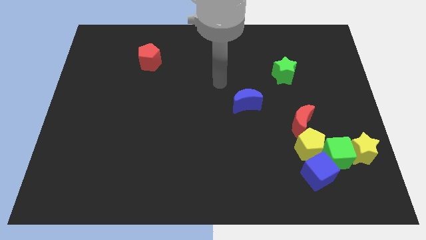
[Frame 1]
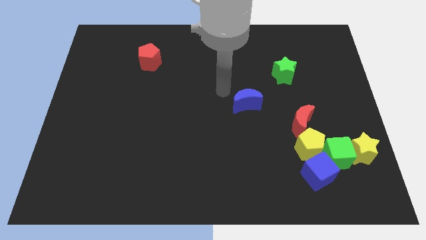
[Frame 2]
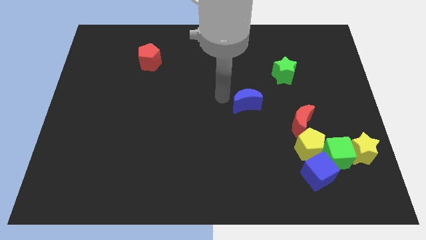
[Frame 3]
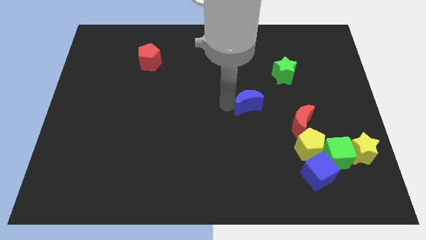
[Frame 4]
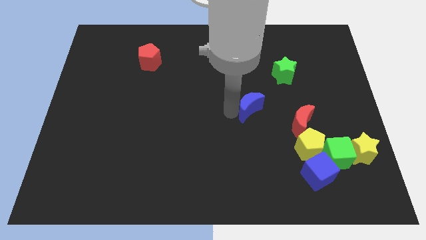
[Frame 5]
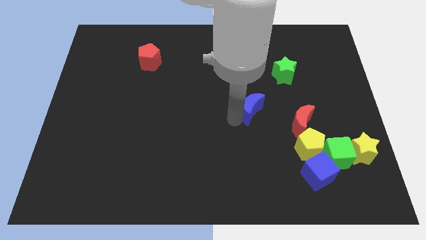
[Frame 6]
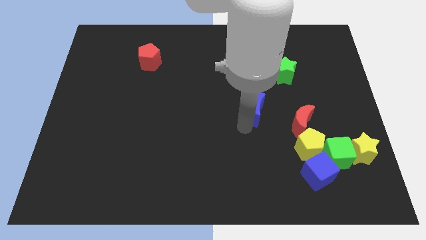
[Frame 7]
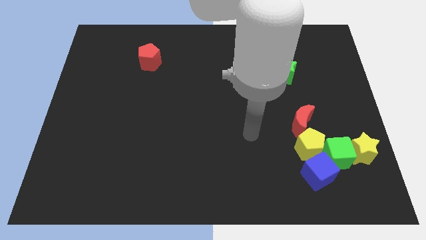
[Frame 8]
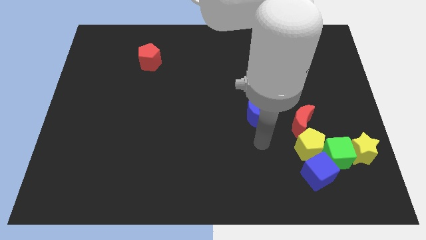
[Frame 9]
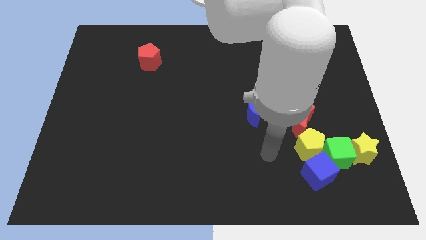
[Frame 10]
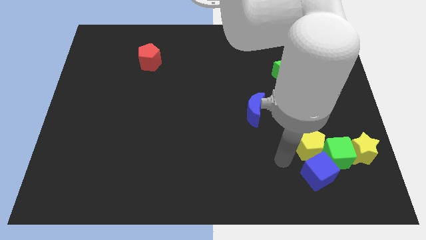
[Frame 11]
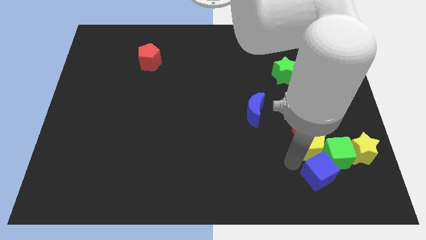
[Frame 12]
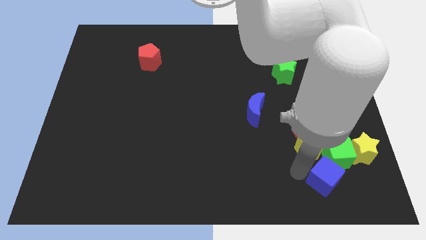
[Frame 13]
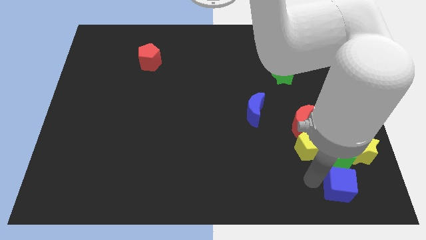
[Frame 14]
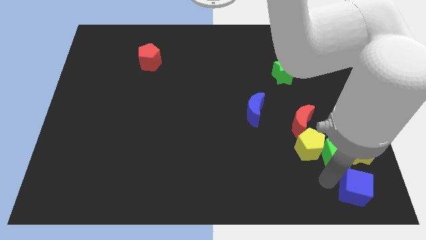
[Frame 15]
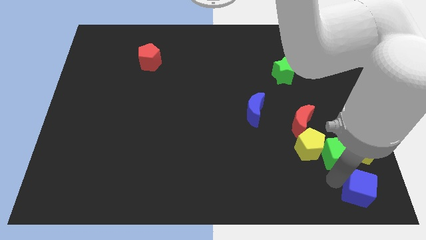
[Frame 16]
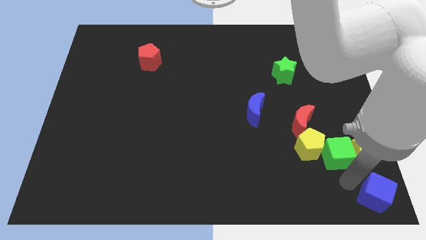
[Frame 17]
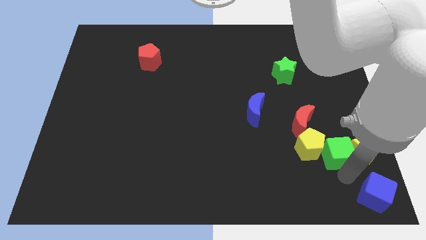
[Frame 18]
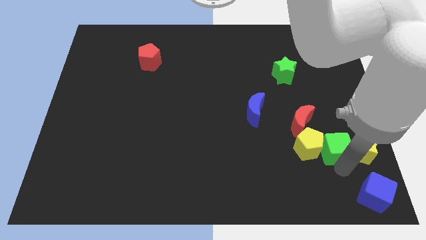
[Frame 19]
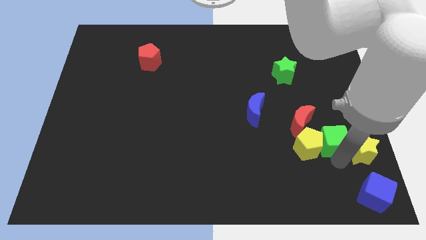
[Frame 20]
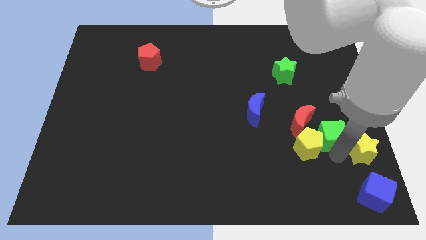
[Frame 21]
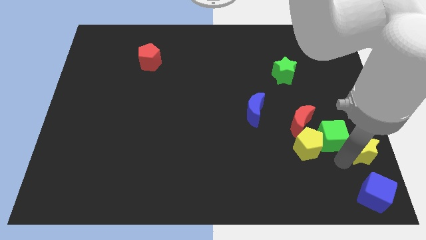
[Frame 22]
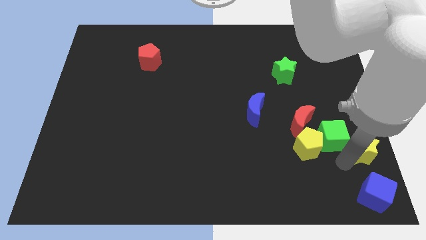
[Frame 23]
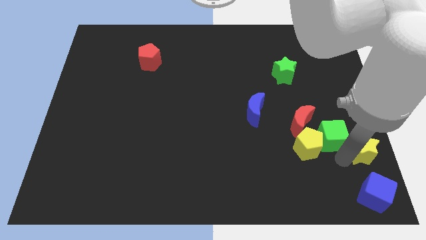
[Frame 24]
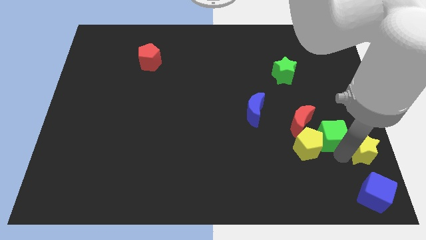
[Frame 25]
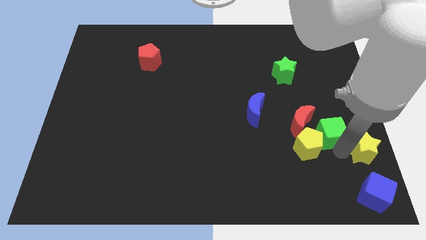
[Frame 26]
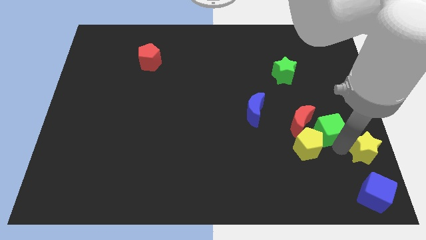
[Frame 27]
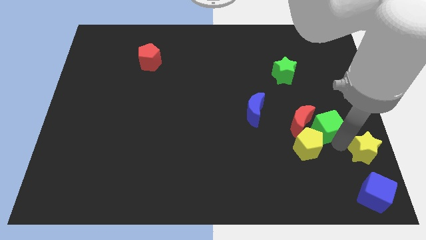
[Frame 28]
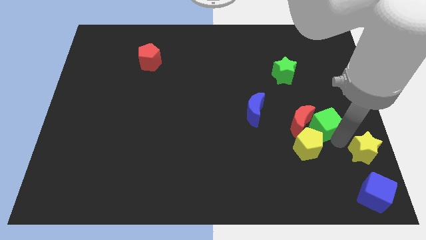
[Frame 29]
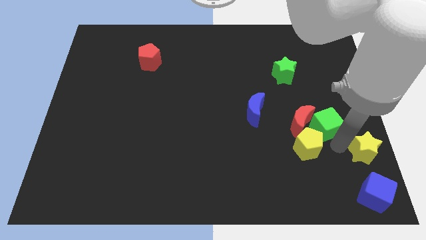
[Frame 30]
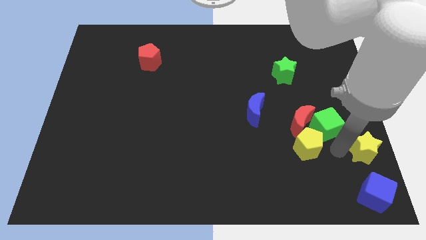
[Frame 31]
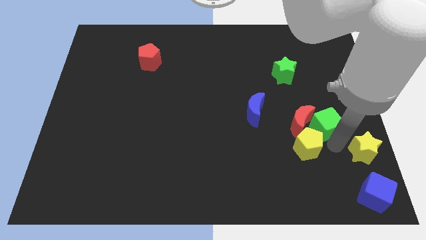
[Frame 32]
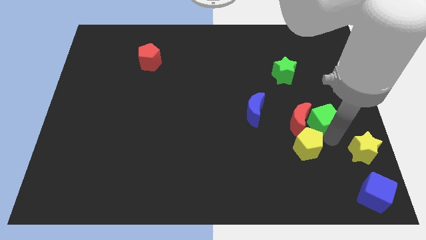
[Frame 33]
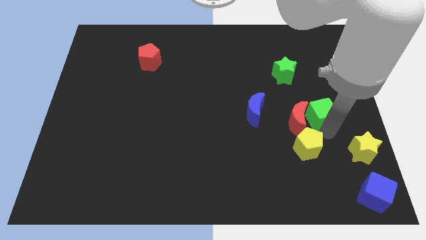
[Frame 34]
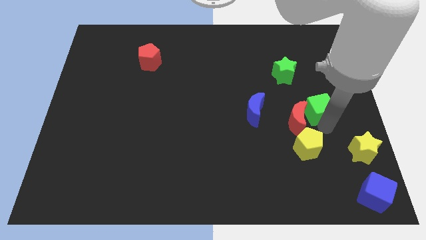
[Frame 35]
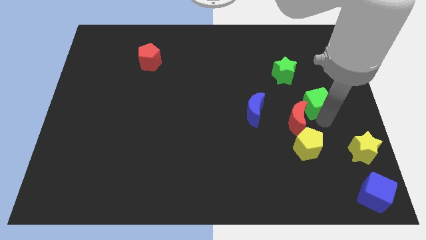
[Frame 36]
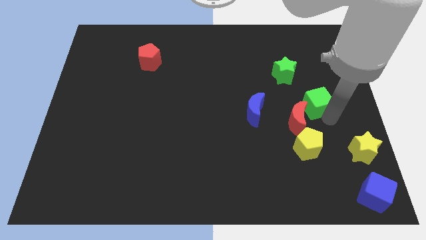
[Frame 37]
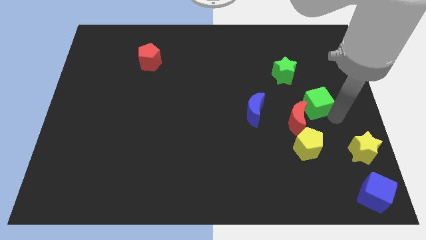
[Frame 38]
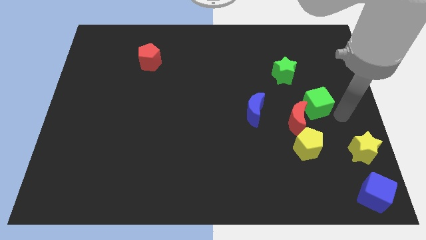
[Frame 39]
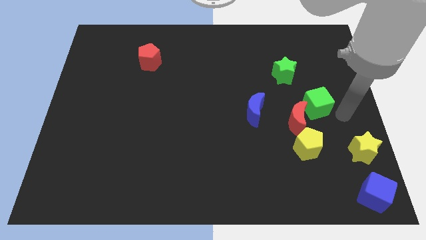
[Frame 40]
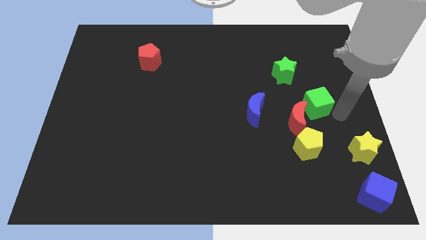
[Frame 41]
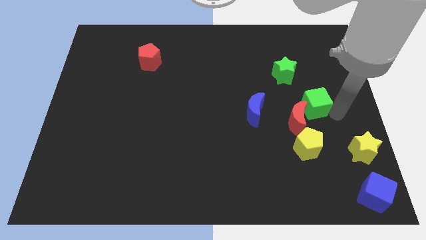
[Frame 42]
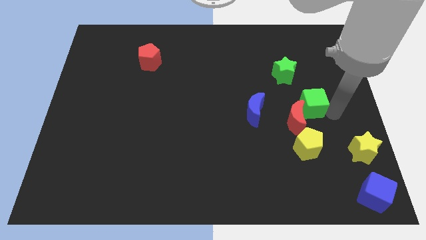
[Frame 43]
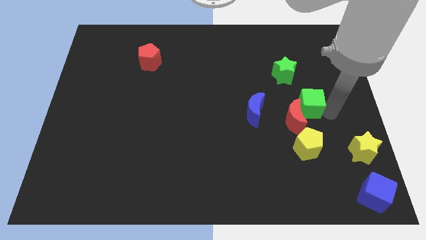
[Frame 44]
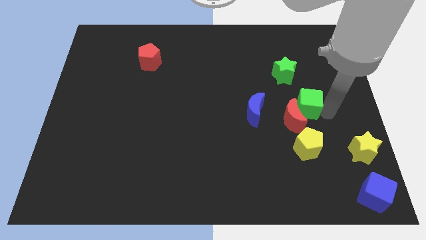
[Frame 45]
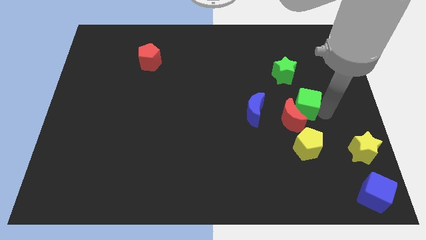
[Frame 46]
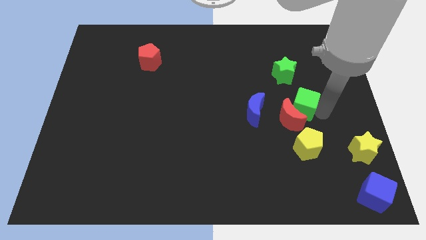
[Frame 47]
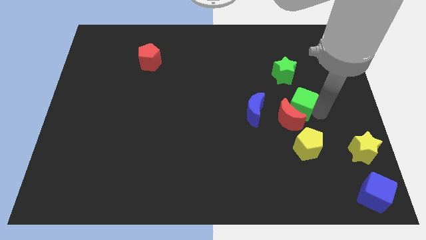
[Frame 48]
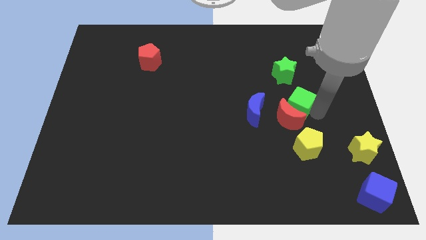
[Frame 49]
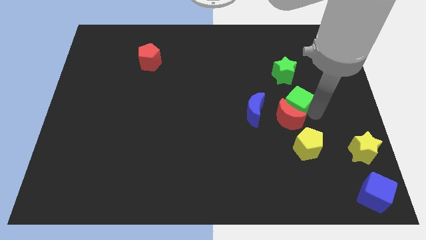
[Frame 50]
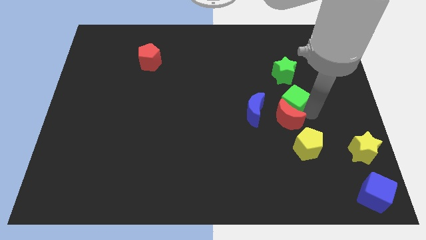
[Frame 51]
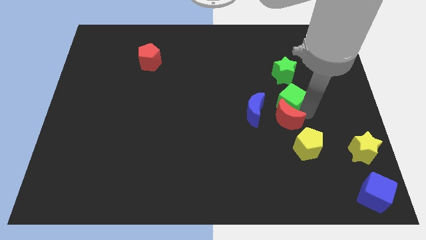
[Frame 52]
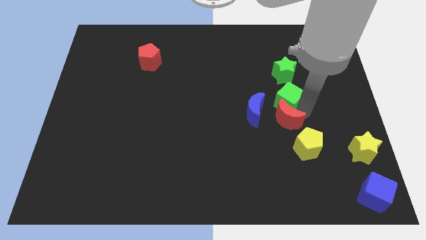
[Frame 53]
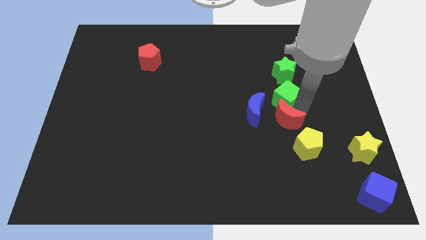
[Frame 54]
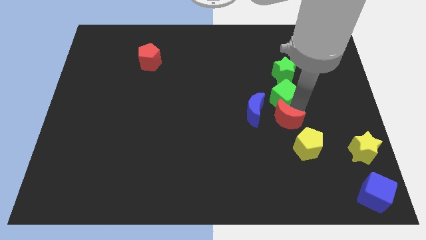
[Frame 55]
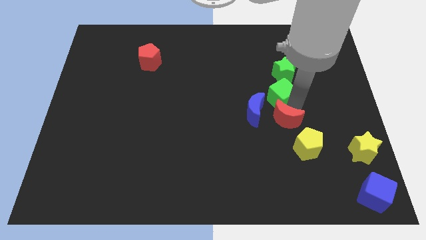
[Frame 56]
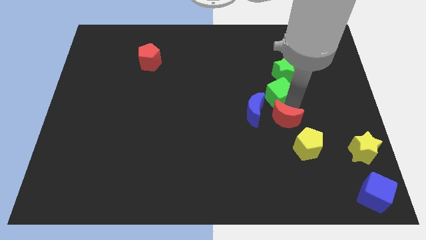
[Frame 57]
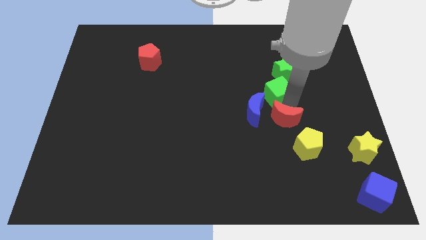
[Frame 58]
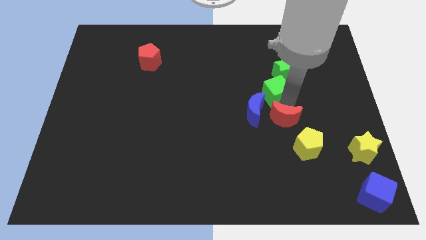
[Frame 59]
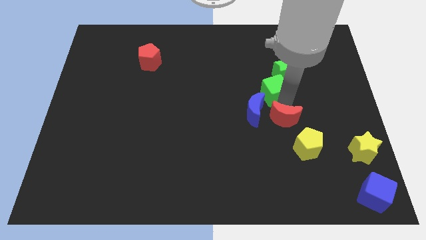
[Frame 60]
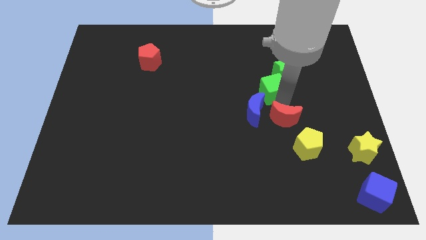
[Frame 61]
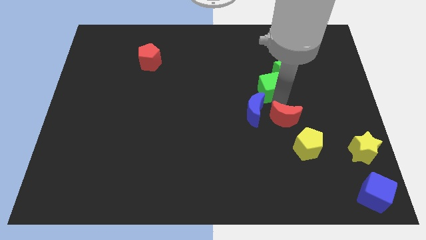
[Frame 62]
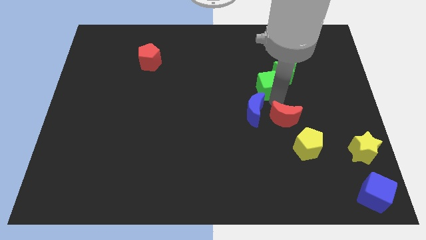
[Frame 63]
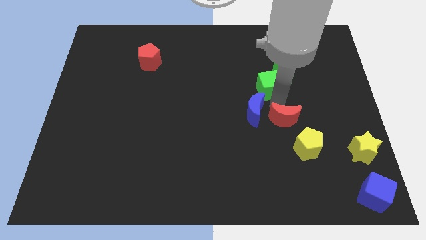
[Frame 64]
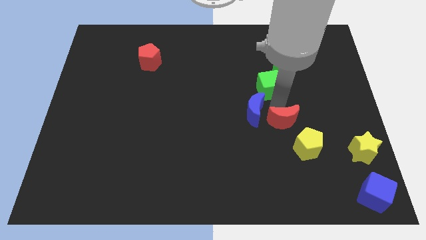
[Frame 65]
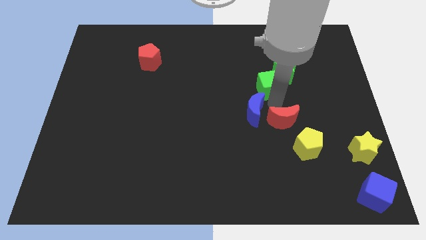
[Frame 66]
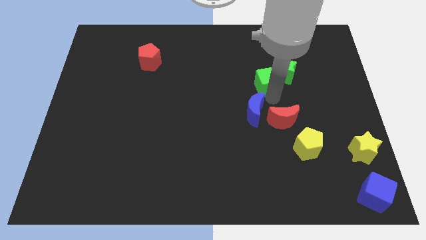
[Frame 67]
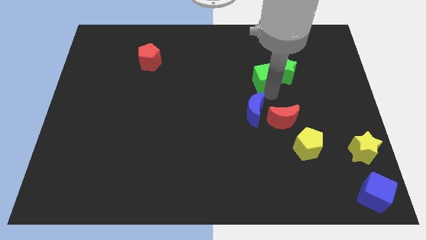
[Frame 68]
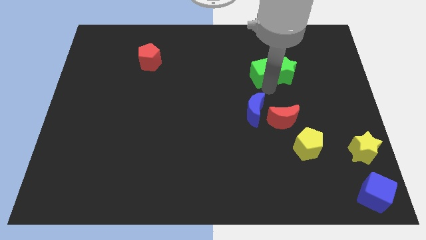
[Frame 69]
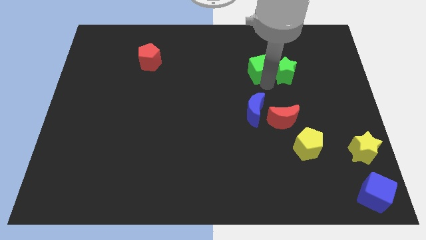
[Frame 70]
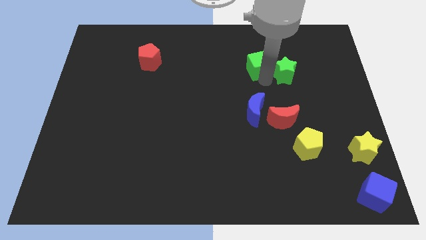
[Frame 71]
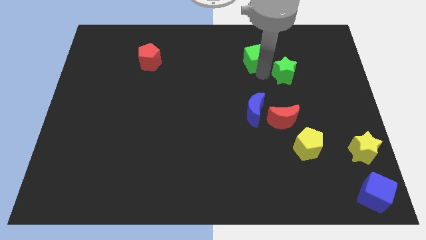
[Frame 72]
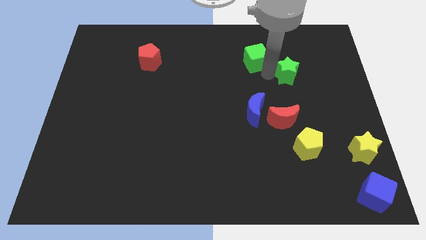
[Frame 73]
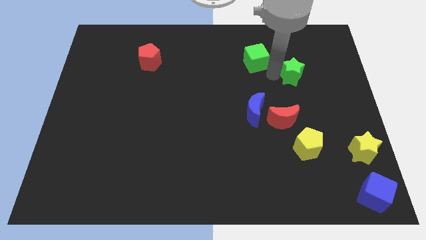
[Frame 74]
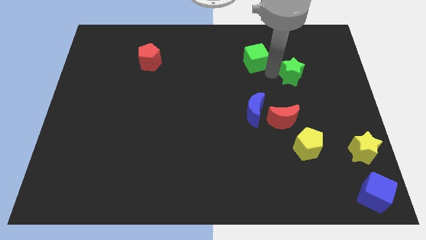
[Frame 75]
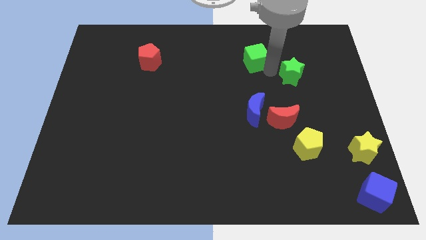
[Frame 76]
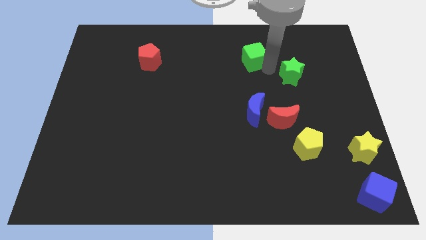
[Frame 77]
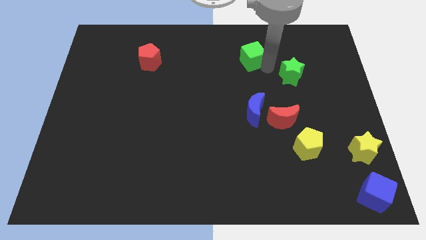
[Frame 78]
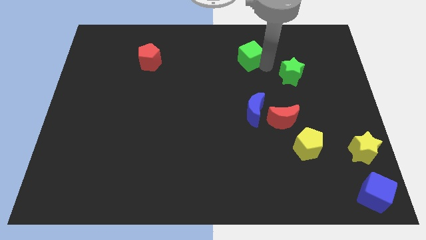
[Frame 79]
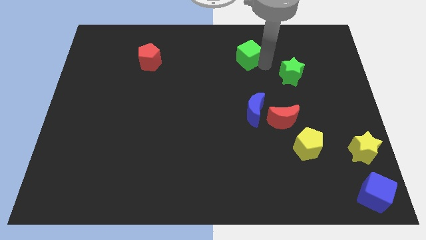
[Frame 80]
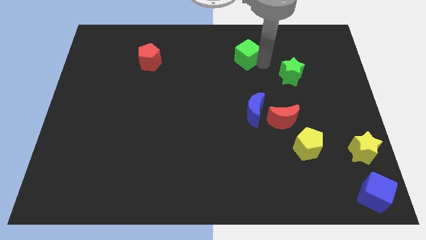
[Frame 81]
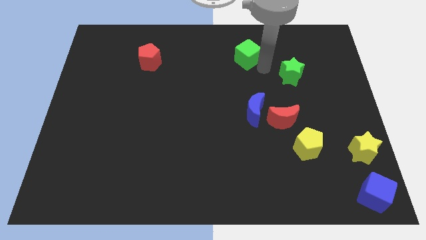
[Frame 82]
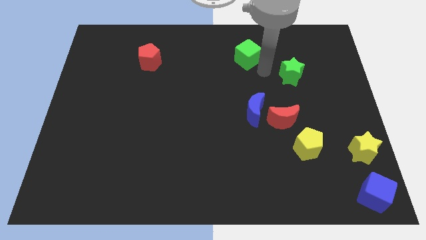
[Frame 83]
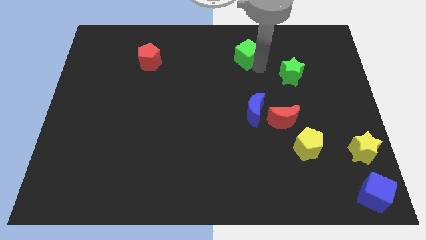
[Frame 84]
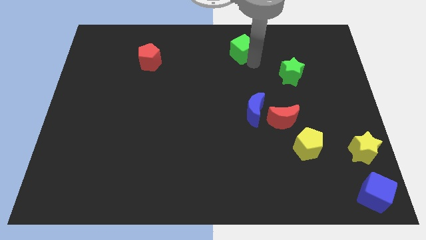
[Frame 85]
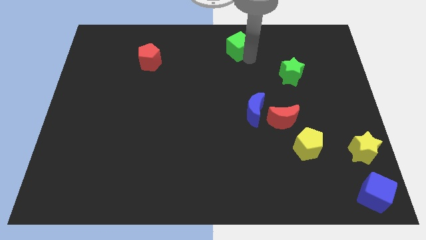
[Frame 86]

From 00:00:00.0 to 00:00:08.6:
push the green cube to the towards your base
